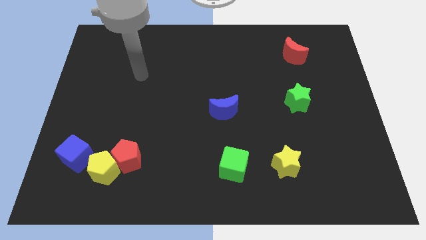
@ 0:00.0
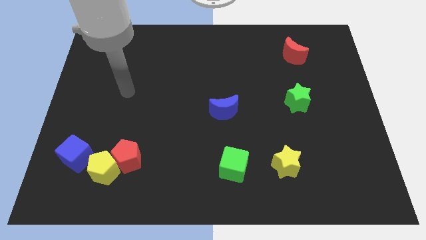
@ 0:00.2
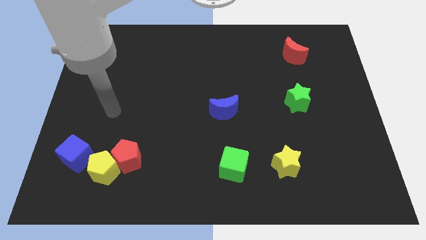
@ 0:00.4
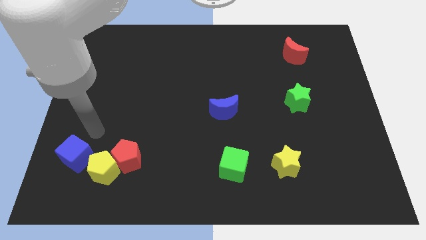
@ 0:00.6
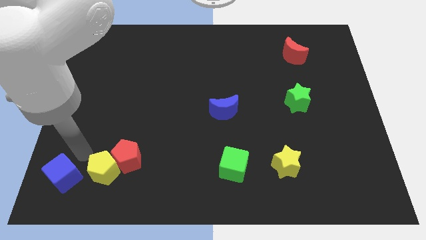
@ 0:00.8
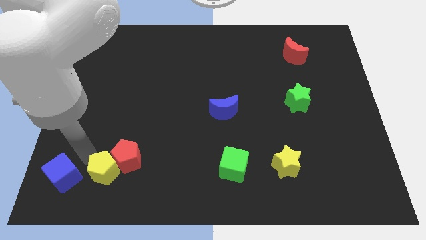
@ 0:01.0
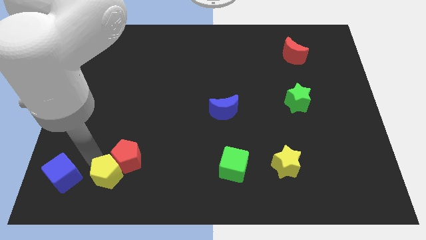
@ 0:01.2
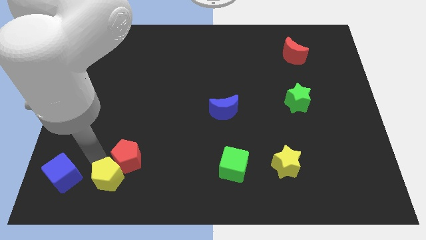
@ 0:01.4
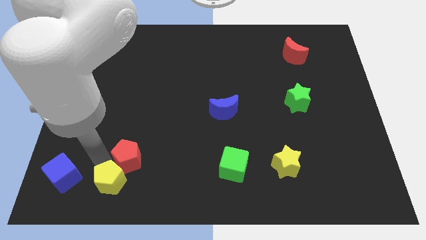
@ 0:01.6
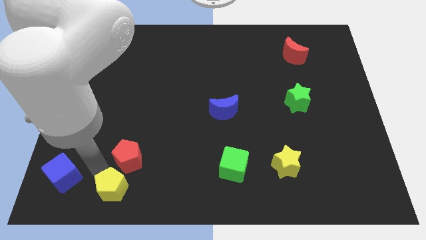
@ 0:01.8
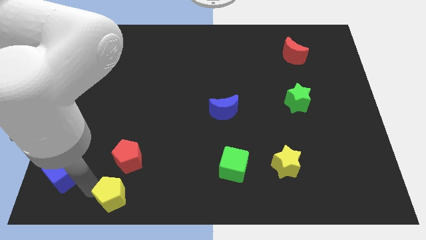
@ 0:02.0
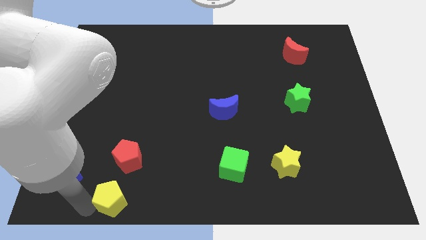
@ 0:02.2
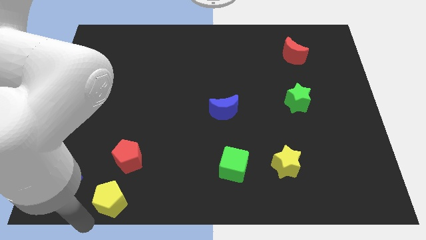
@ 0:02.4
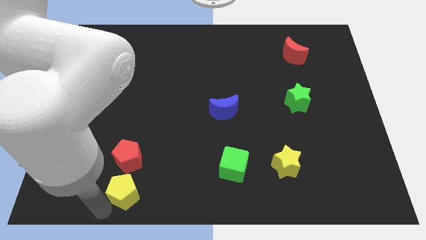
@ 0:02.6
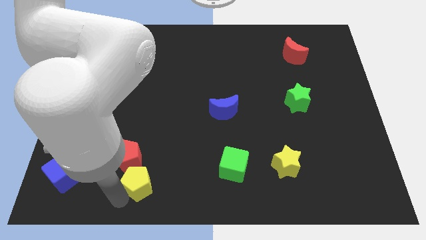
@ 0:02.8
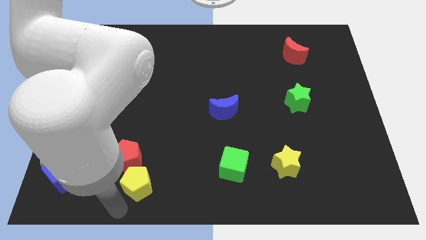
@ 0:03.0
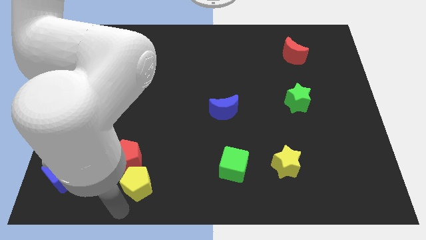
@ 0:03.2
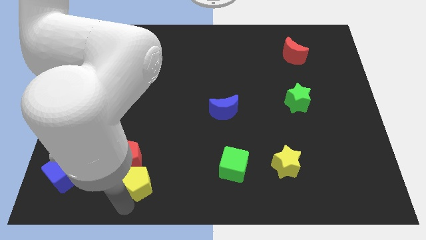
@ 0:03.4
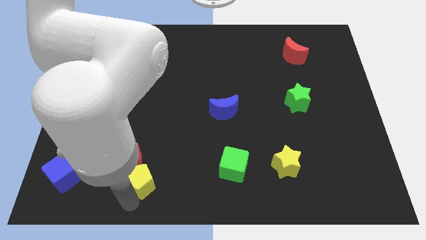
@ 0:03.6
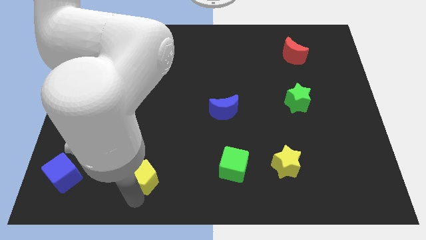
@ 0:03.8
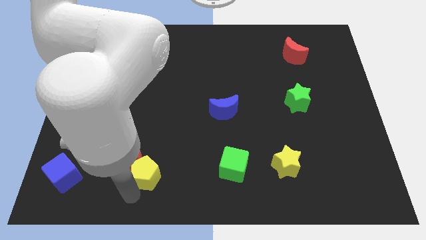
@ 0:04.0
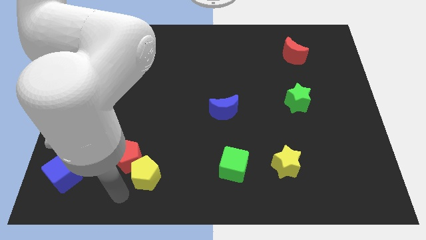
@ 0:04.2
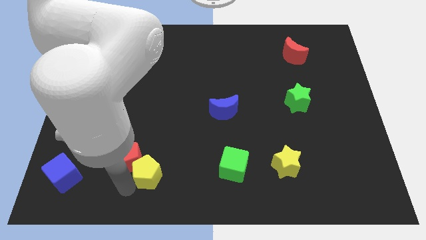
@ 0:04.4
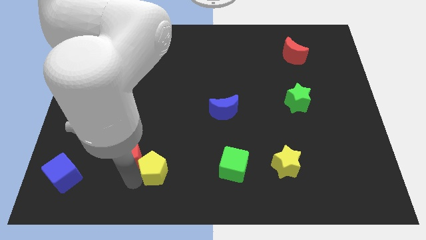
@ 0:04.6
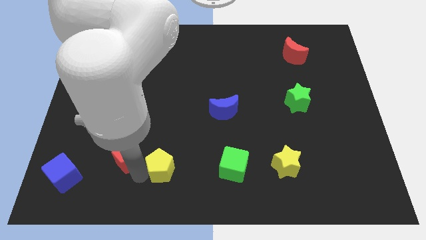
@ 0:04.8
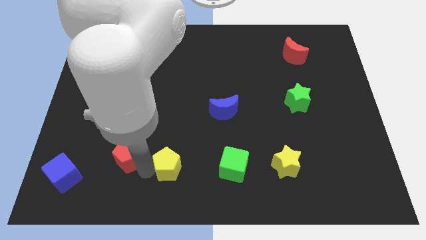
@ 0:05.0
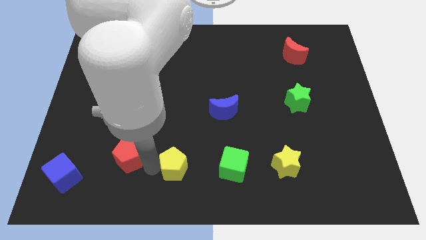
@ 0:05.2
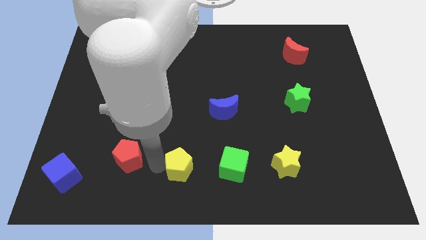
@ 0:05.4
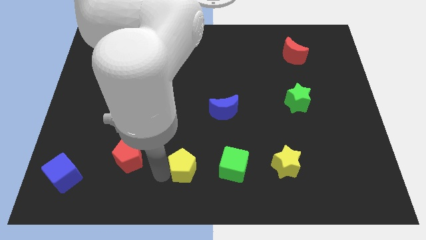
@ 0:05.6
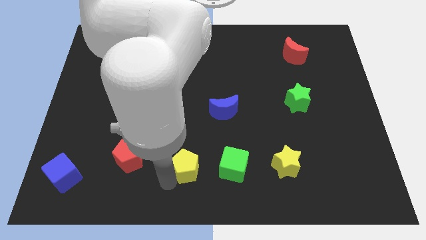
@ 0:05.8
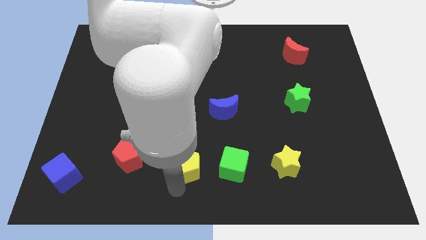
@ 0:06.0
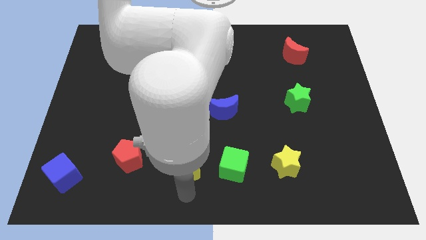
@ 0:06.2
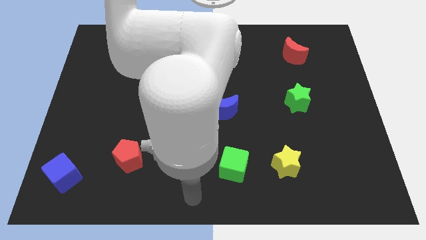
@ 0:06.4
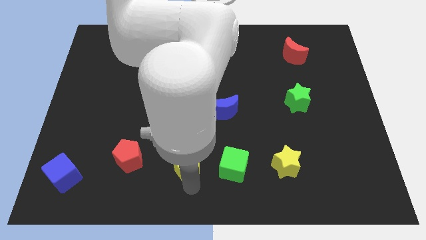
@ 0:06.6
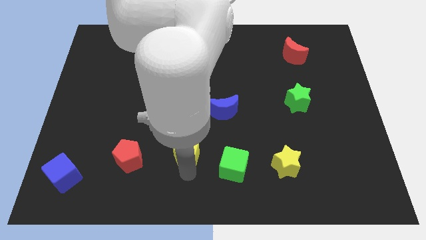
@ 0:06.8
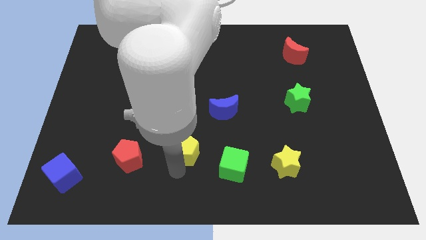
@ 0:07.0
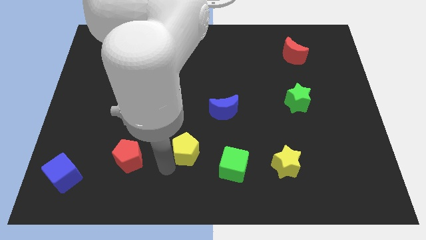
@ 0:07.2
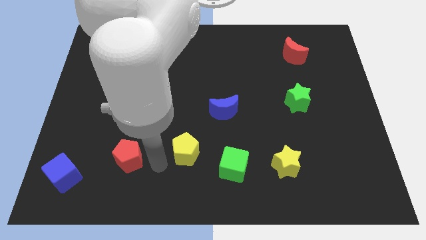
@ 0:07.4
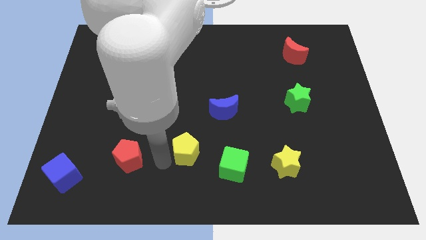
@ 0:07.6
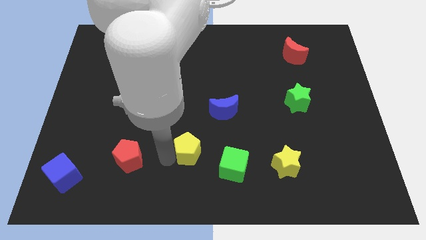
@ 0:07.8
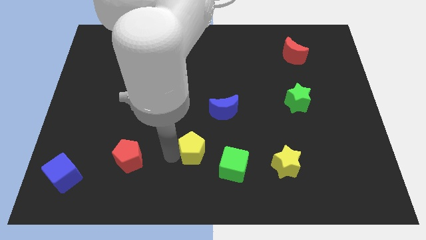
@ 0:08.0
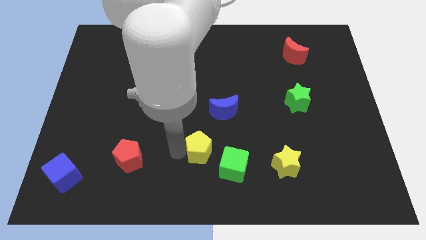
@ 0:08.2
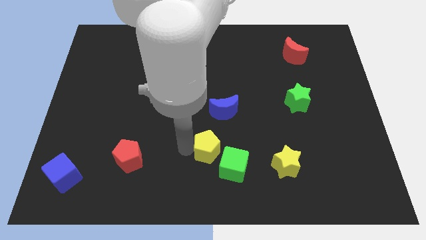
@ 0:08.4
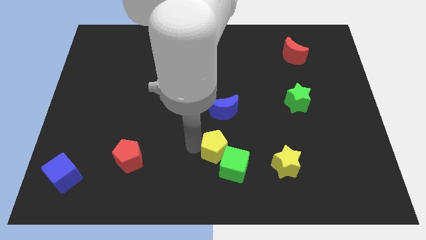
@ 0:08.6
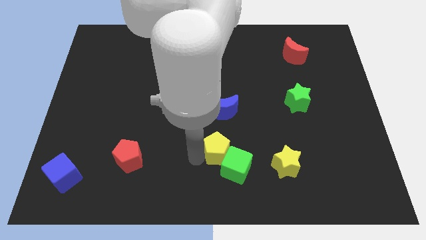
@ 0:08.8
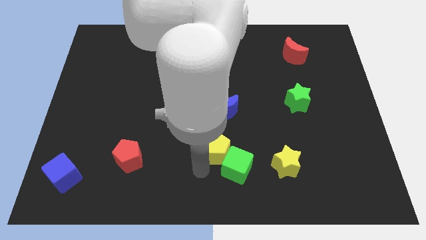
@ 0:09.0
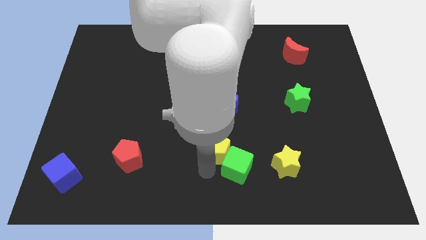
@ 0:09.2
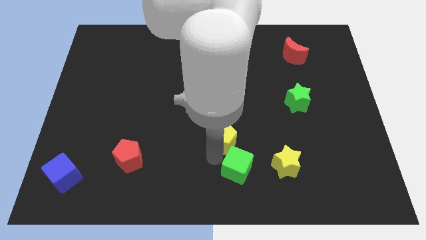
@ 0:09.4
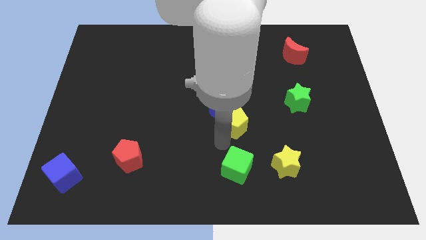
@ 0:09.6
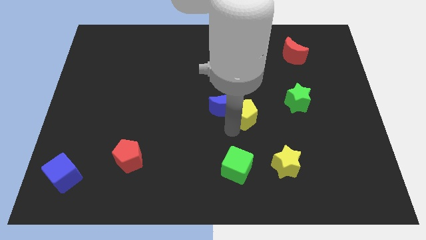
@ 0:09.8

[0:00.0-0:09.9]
slide the yellow pentagon to the left of the green star

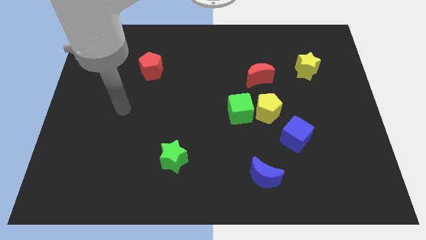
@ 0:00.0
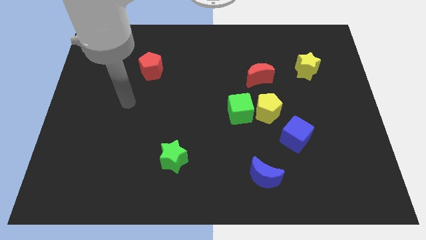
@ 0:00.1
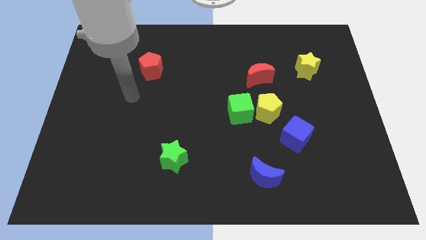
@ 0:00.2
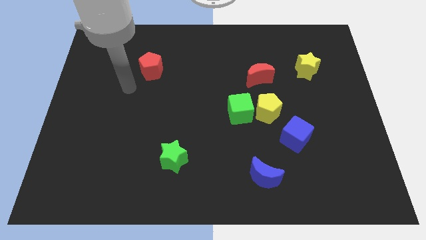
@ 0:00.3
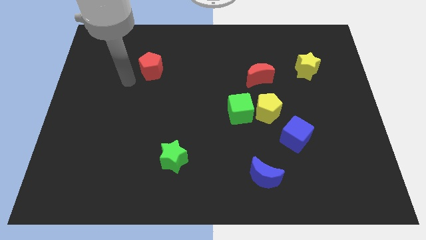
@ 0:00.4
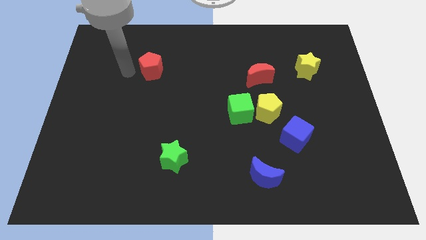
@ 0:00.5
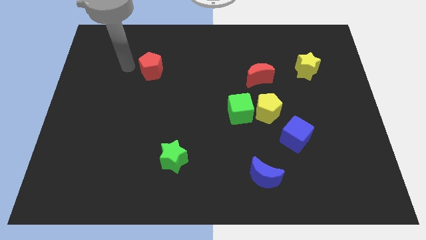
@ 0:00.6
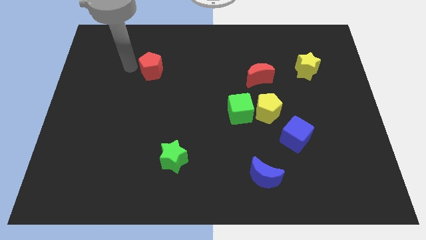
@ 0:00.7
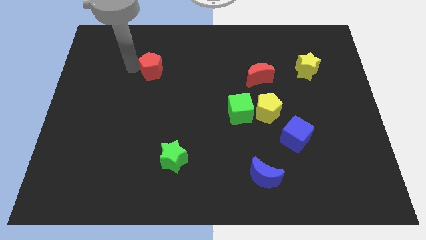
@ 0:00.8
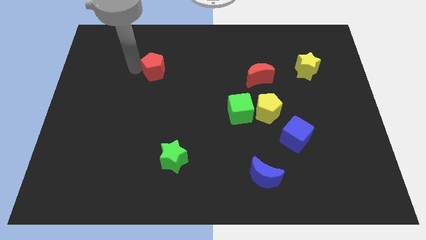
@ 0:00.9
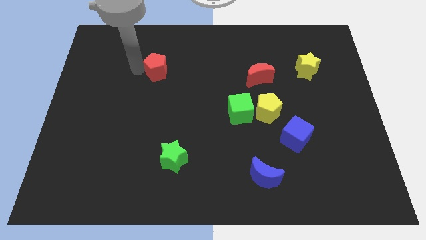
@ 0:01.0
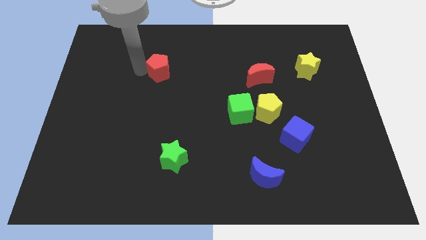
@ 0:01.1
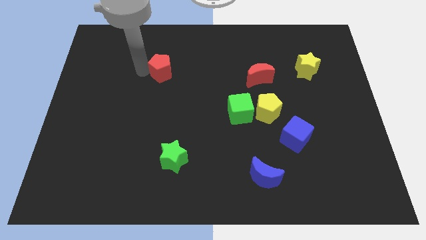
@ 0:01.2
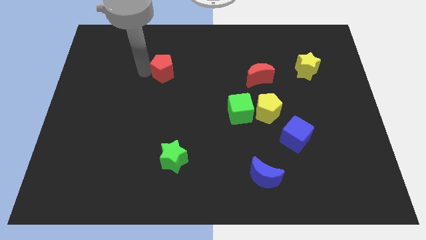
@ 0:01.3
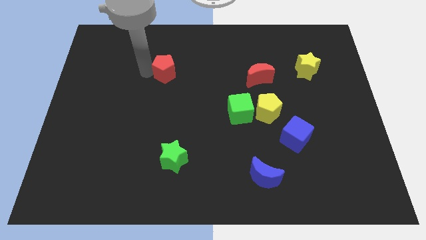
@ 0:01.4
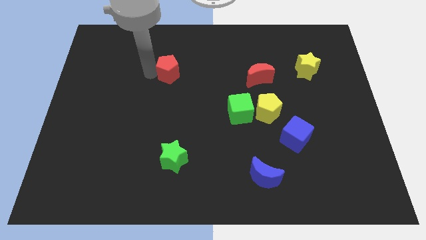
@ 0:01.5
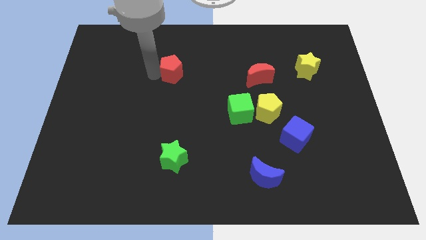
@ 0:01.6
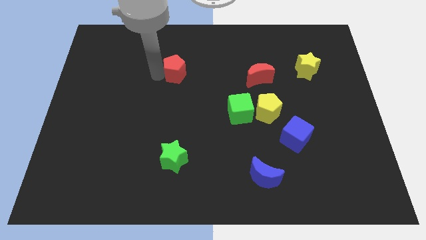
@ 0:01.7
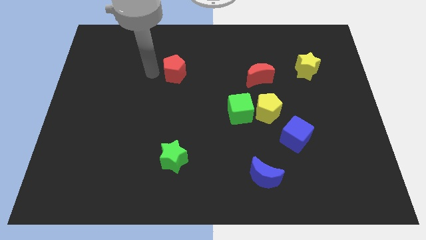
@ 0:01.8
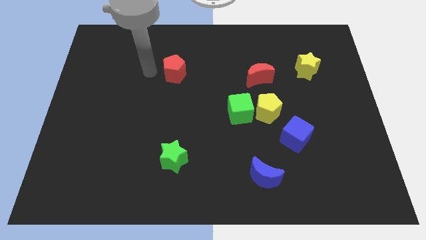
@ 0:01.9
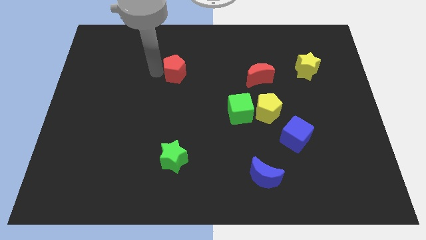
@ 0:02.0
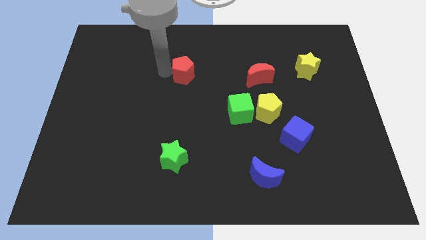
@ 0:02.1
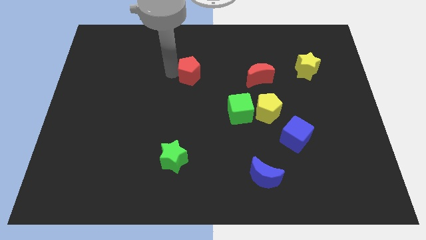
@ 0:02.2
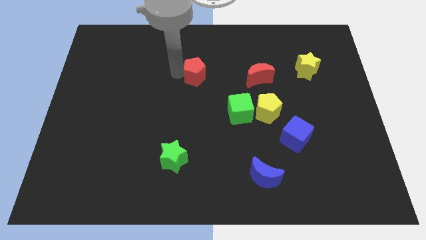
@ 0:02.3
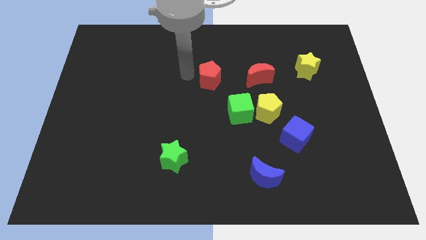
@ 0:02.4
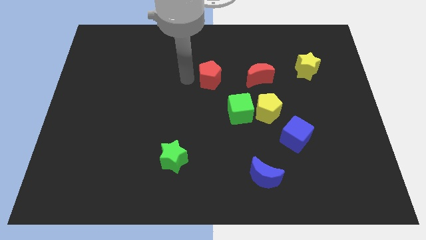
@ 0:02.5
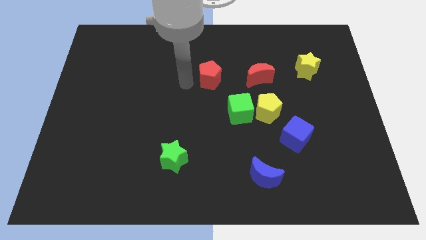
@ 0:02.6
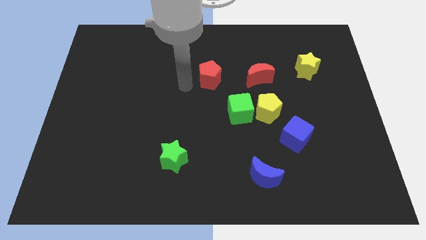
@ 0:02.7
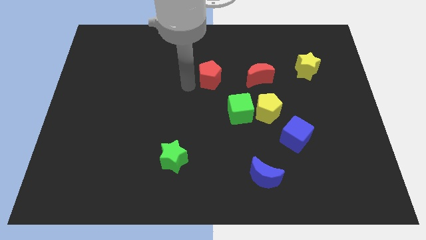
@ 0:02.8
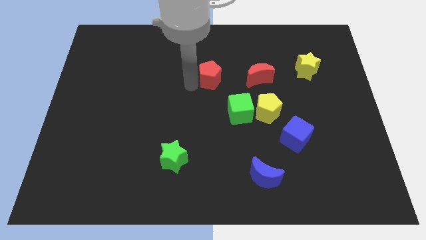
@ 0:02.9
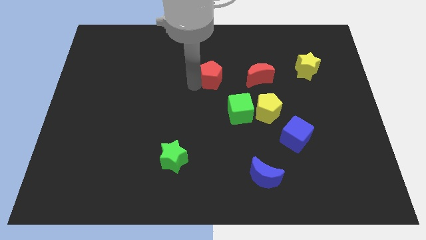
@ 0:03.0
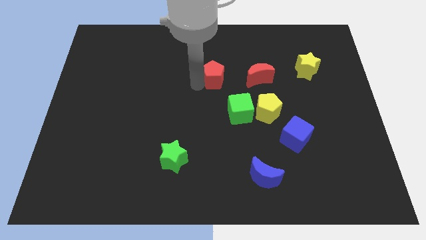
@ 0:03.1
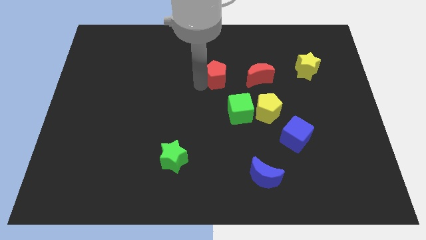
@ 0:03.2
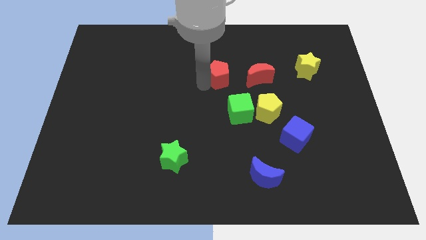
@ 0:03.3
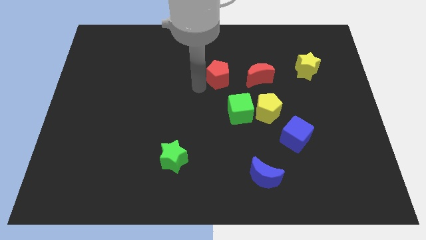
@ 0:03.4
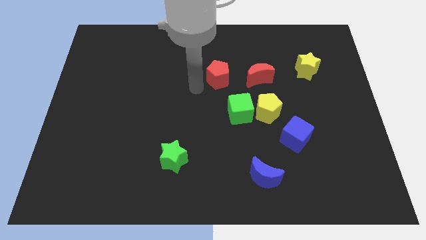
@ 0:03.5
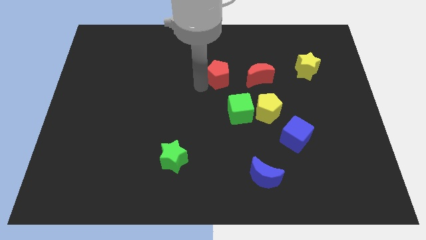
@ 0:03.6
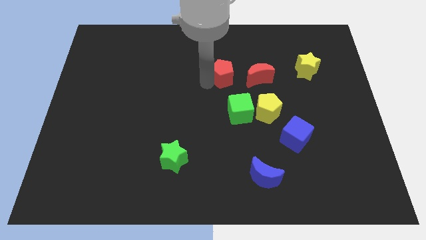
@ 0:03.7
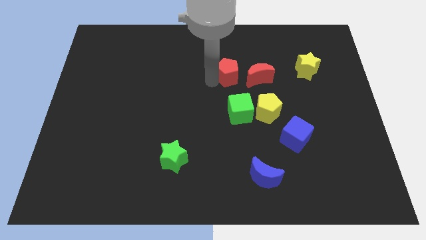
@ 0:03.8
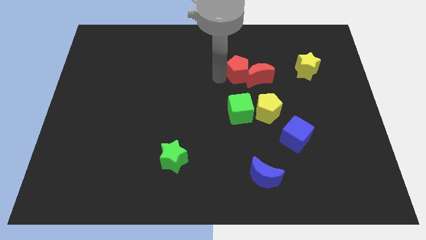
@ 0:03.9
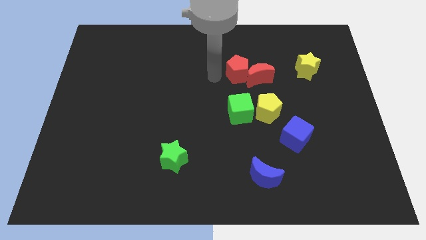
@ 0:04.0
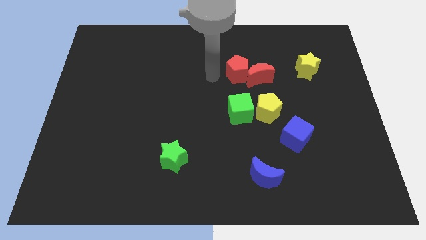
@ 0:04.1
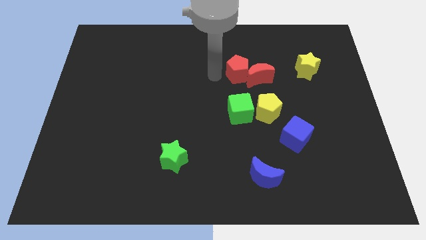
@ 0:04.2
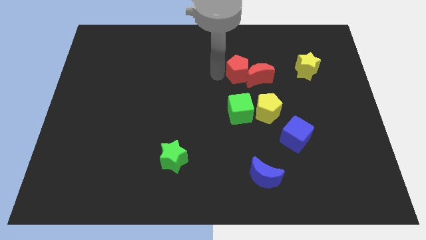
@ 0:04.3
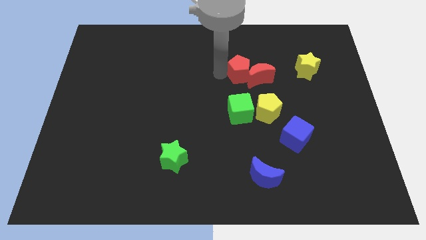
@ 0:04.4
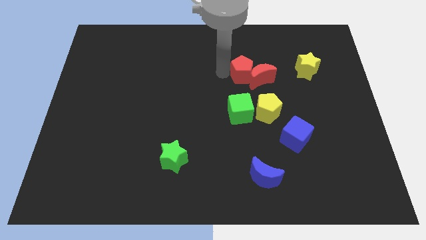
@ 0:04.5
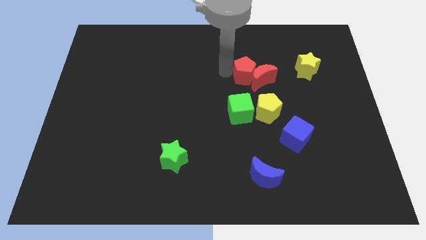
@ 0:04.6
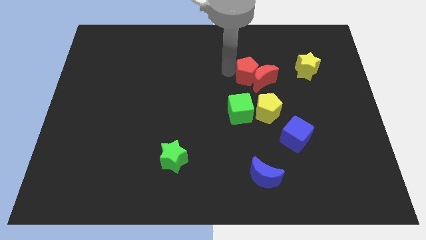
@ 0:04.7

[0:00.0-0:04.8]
slide the red pentagon to the left of the yellow star
